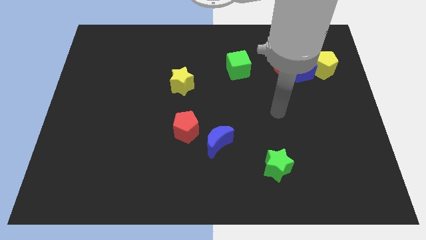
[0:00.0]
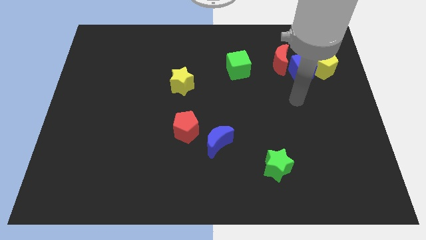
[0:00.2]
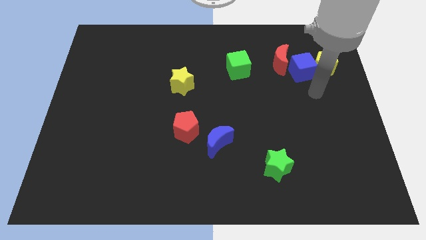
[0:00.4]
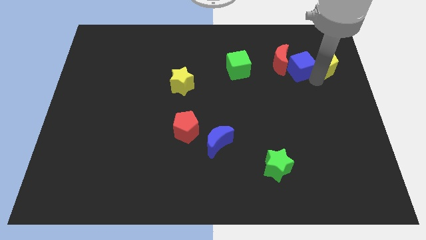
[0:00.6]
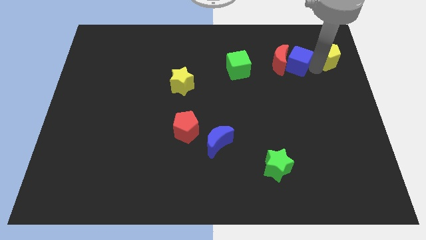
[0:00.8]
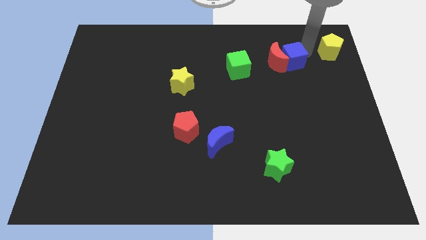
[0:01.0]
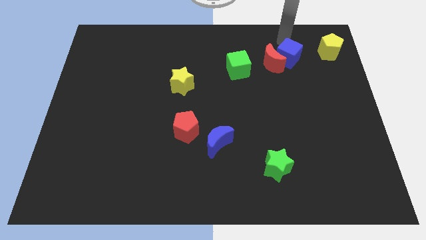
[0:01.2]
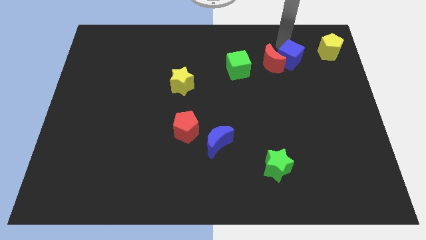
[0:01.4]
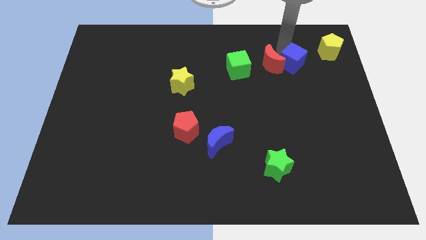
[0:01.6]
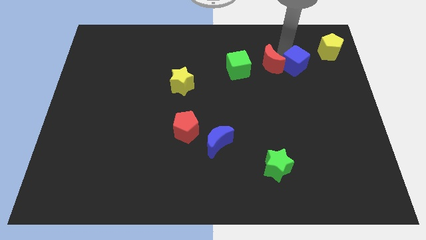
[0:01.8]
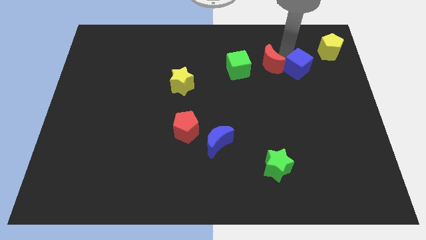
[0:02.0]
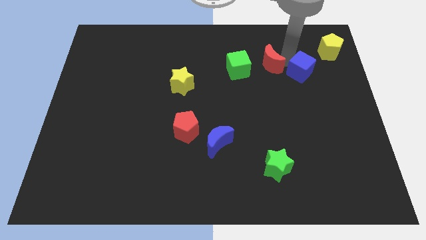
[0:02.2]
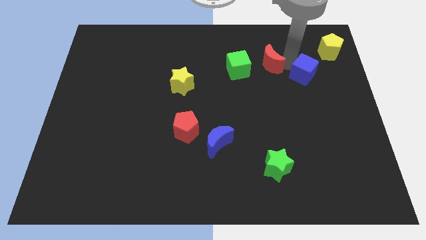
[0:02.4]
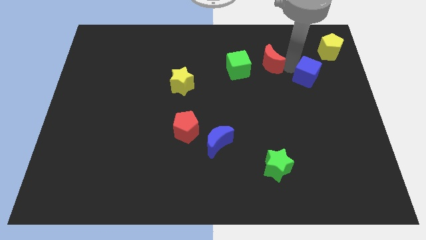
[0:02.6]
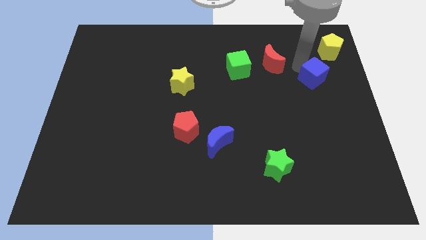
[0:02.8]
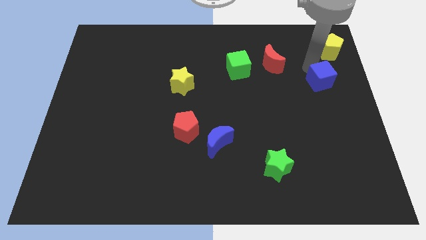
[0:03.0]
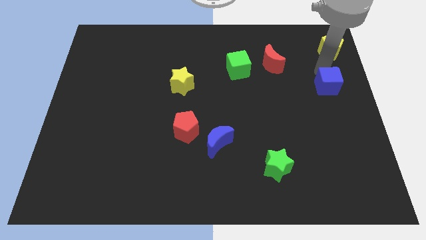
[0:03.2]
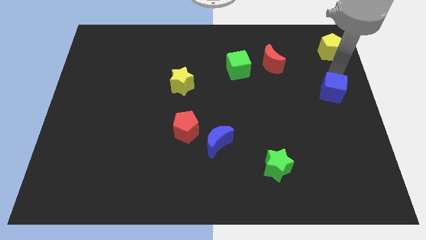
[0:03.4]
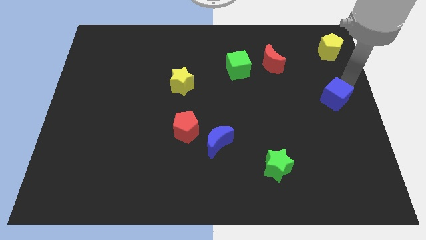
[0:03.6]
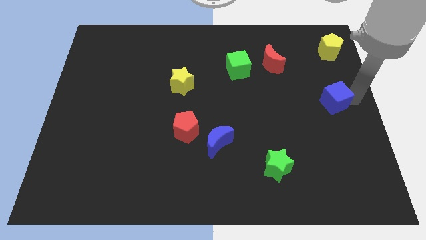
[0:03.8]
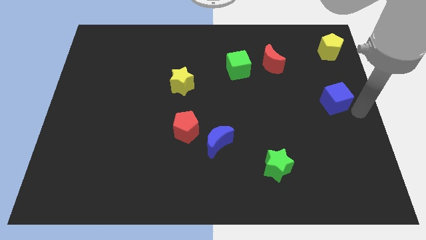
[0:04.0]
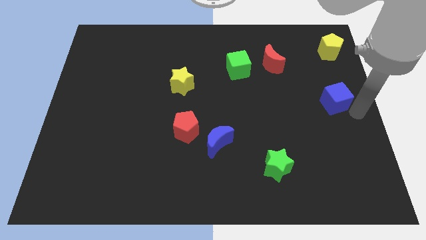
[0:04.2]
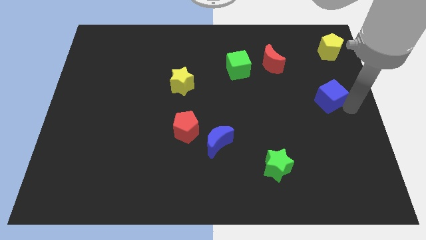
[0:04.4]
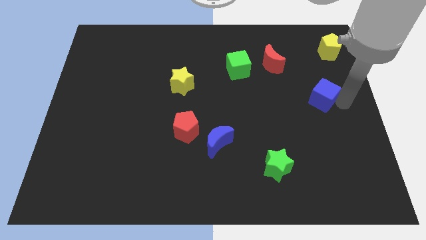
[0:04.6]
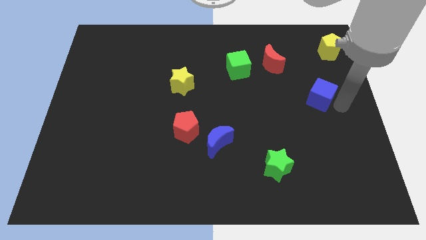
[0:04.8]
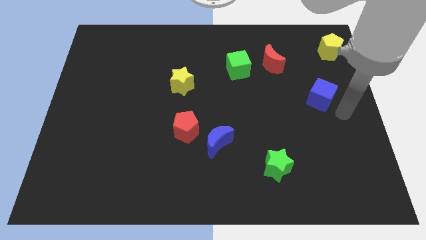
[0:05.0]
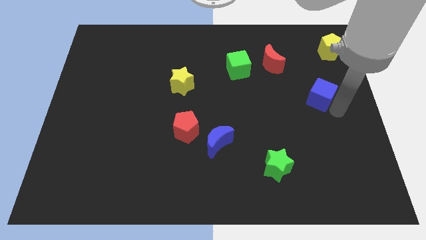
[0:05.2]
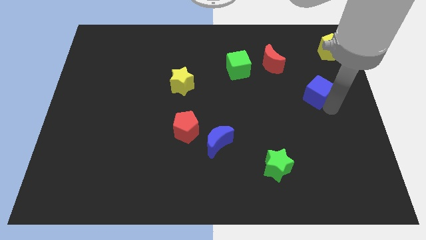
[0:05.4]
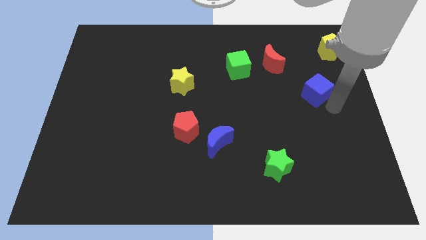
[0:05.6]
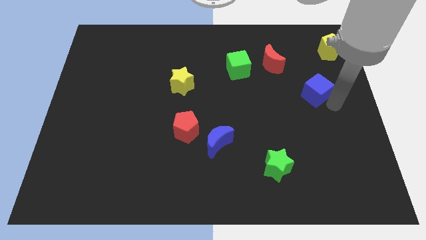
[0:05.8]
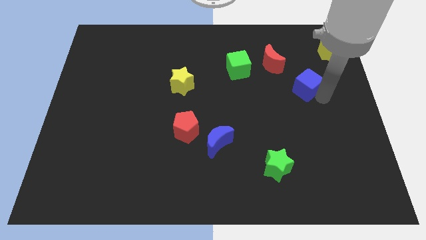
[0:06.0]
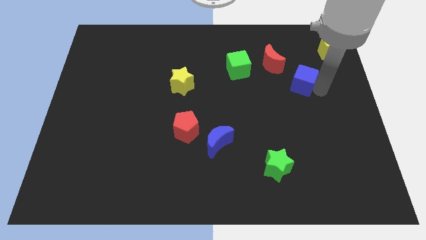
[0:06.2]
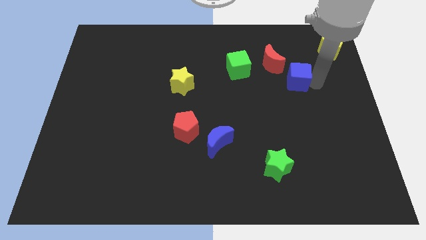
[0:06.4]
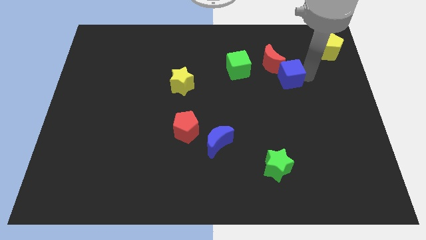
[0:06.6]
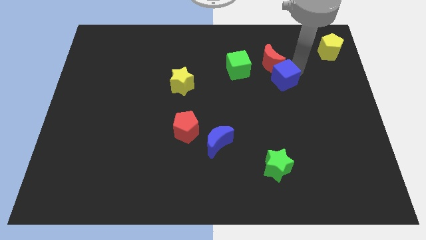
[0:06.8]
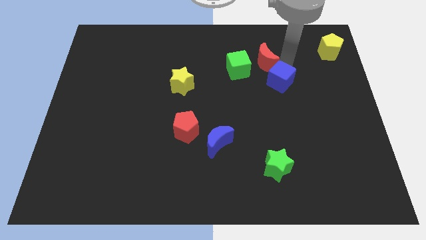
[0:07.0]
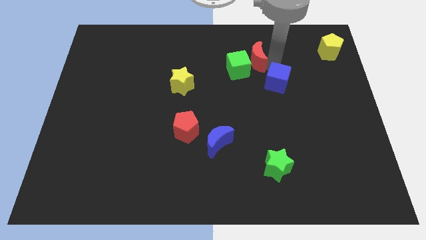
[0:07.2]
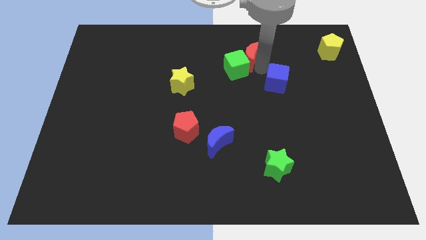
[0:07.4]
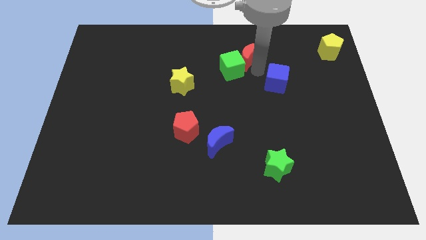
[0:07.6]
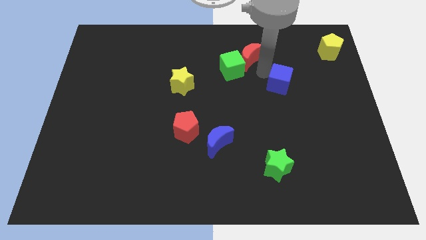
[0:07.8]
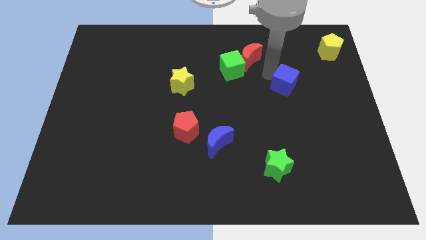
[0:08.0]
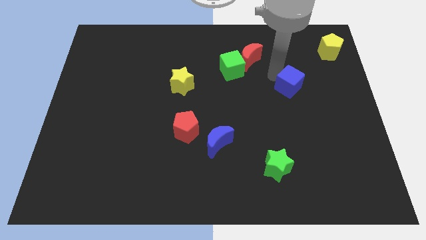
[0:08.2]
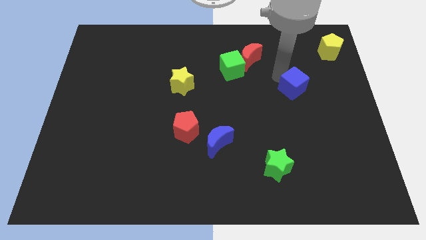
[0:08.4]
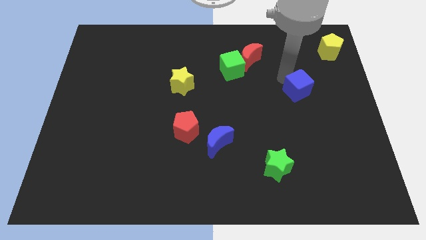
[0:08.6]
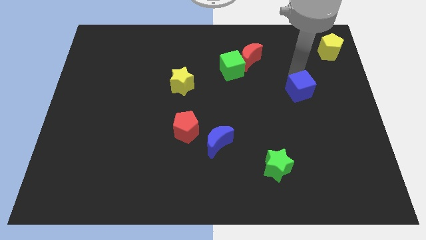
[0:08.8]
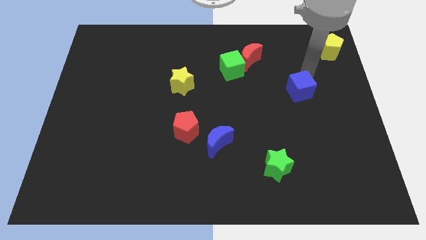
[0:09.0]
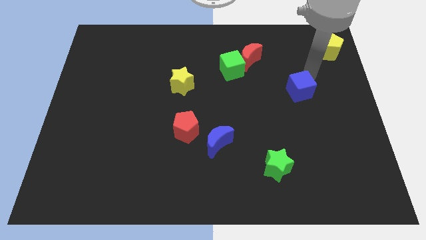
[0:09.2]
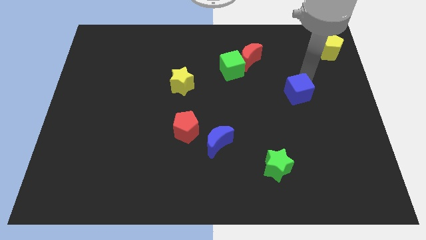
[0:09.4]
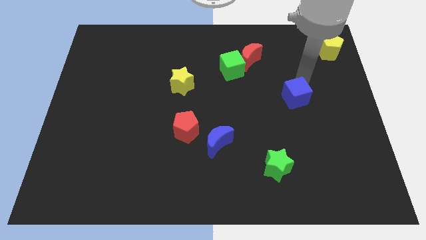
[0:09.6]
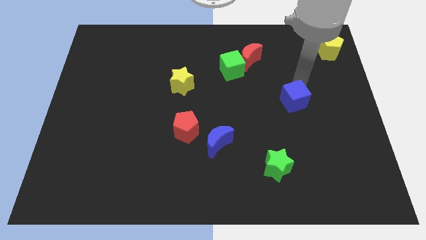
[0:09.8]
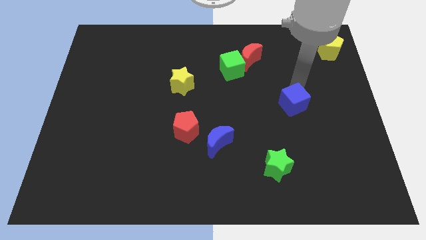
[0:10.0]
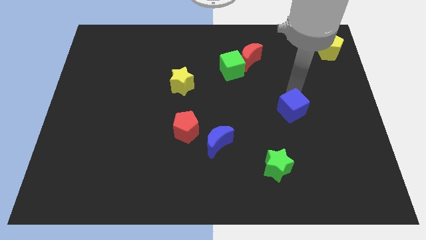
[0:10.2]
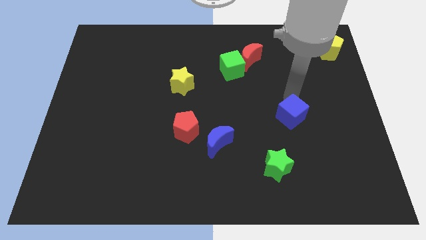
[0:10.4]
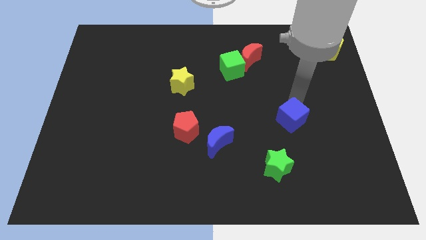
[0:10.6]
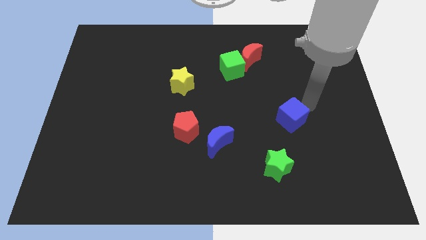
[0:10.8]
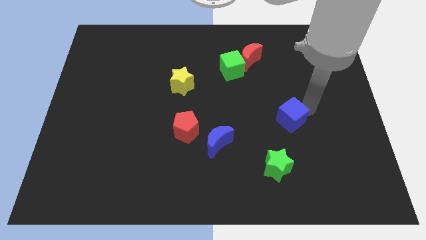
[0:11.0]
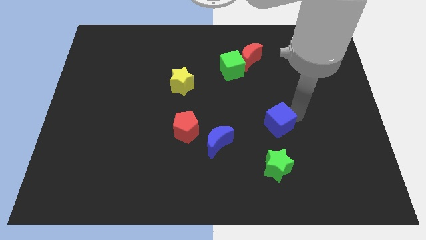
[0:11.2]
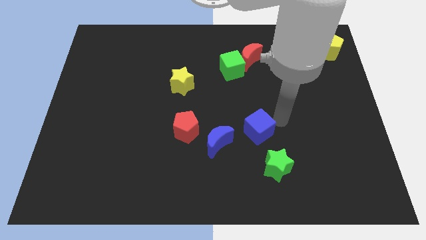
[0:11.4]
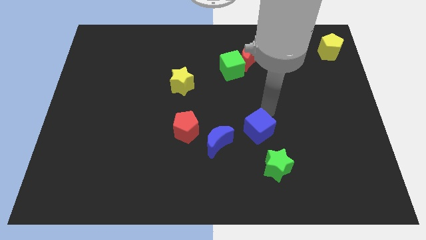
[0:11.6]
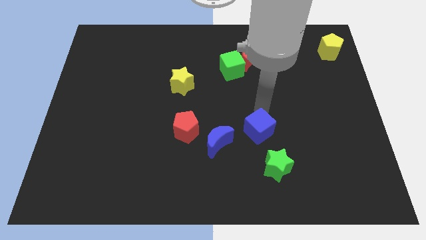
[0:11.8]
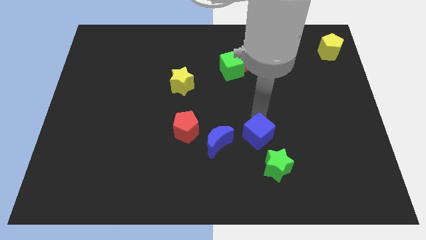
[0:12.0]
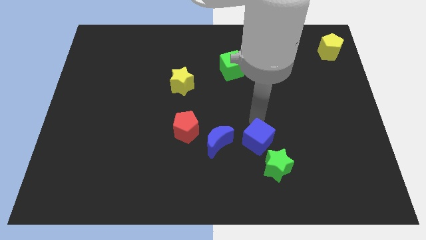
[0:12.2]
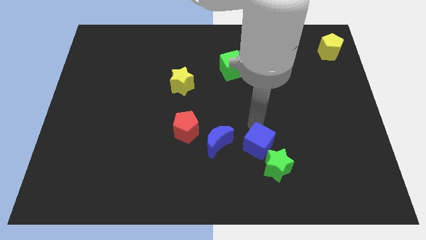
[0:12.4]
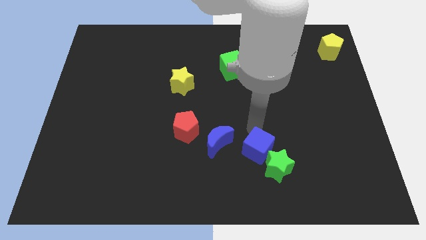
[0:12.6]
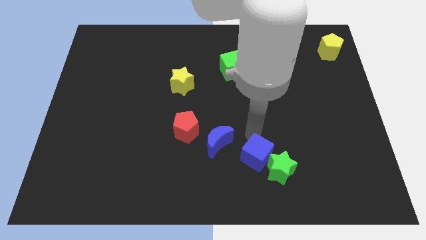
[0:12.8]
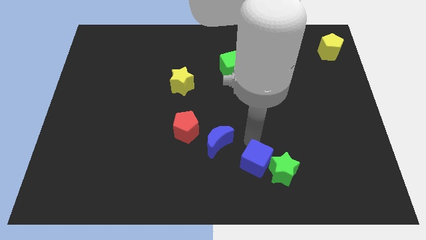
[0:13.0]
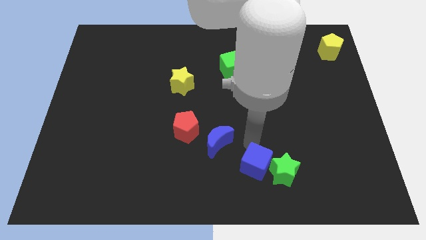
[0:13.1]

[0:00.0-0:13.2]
push the blue cube to the bottom

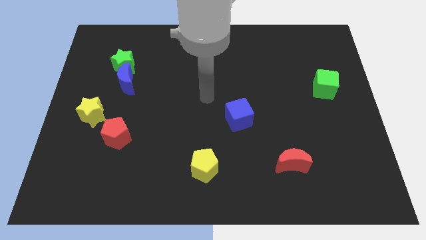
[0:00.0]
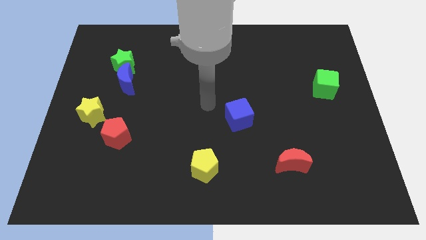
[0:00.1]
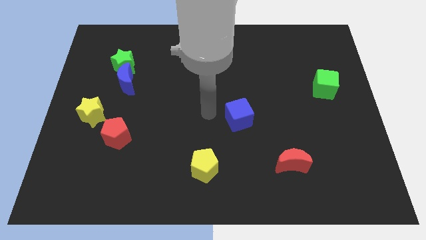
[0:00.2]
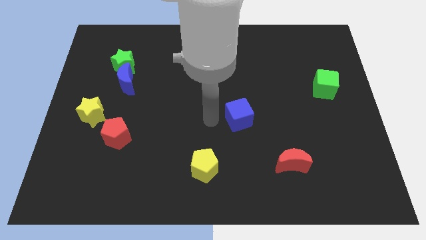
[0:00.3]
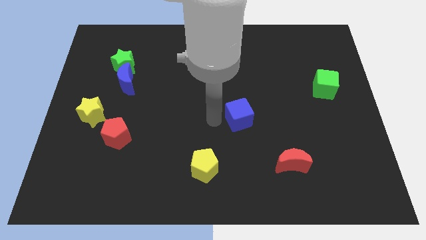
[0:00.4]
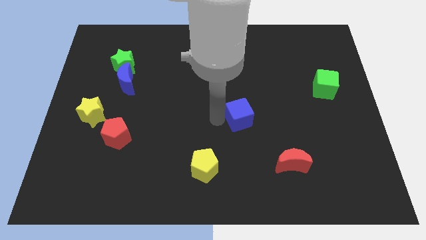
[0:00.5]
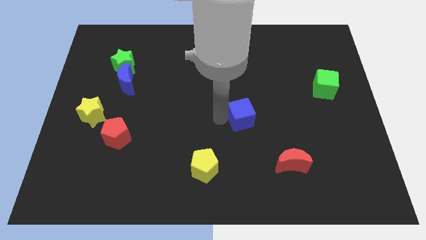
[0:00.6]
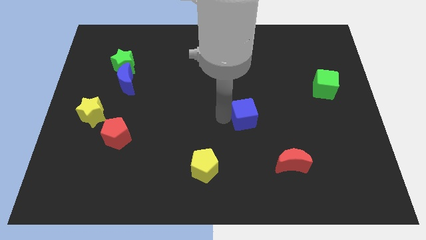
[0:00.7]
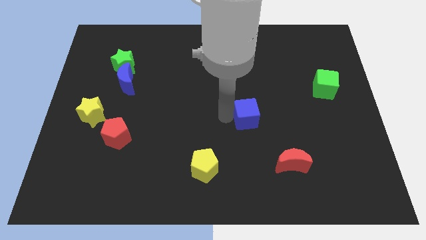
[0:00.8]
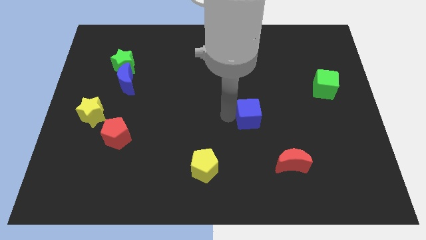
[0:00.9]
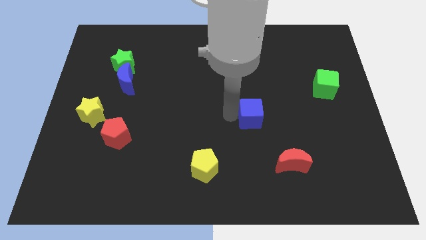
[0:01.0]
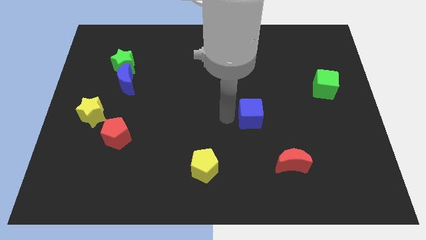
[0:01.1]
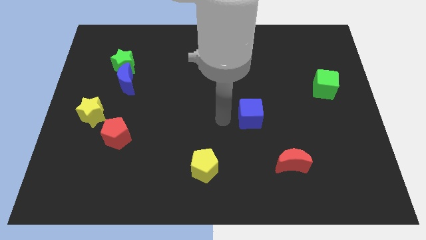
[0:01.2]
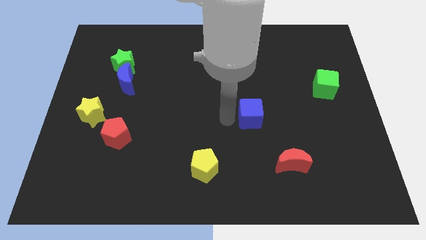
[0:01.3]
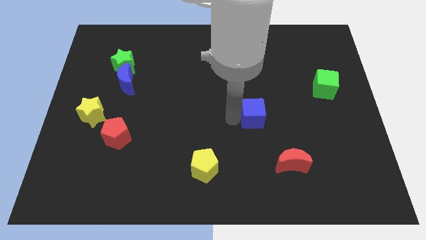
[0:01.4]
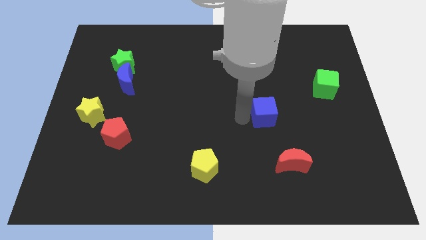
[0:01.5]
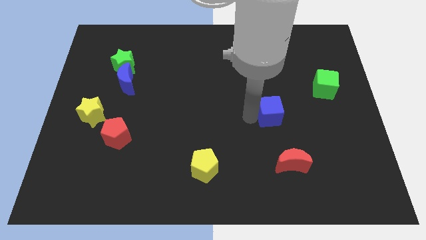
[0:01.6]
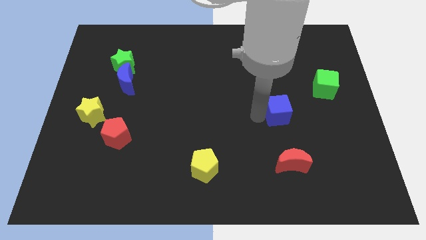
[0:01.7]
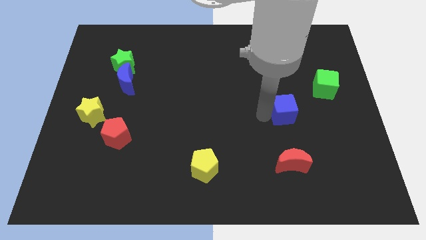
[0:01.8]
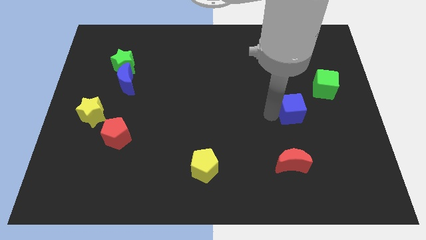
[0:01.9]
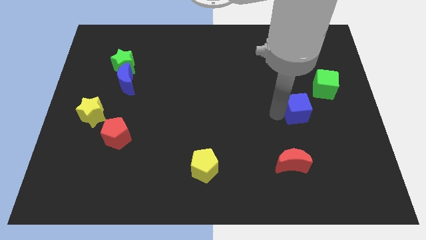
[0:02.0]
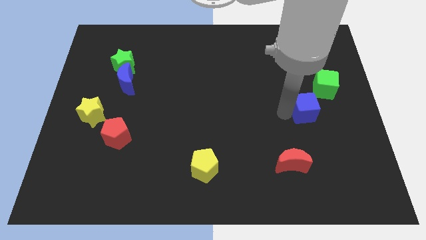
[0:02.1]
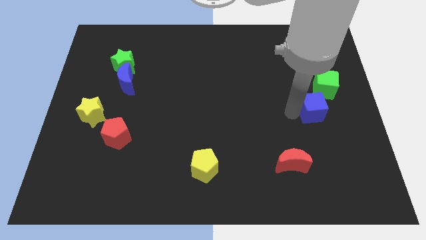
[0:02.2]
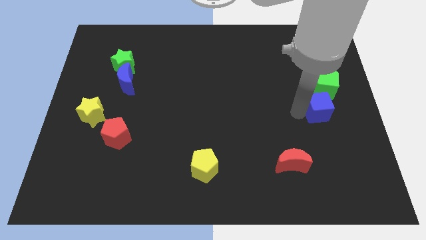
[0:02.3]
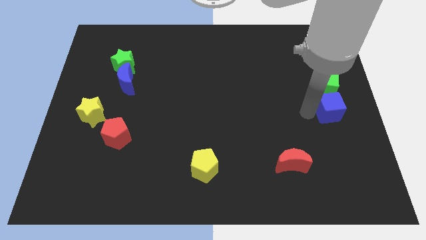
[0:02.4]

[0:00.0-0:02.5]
move the blue cube to the right side
